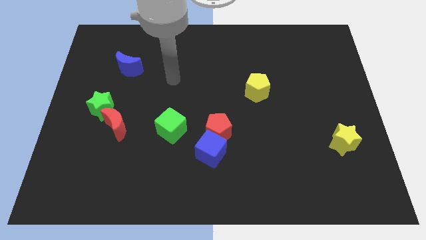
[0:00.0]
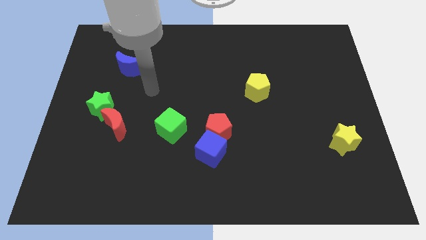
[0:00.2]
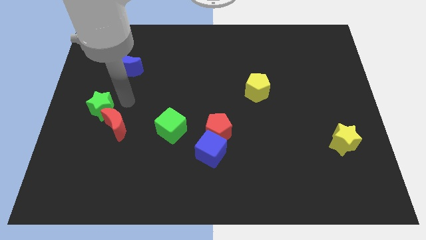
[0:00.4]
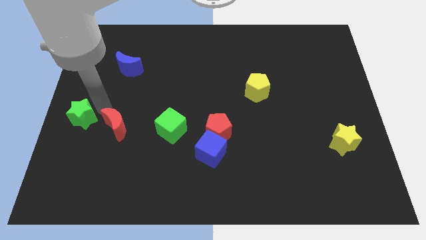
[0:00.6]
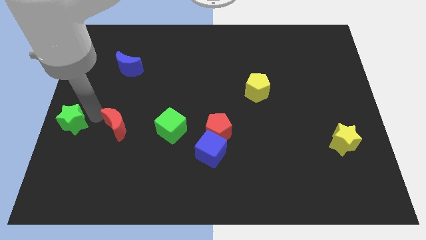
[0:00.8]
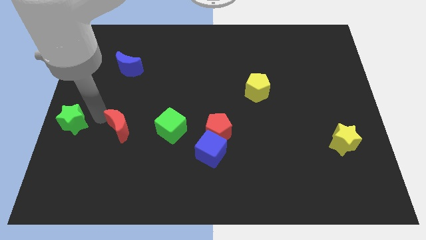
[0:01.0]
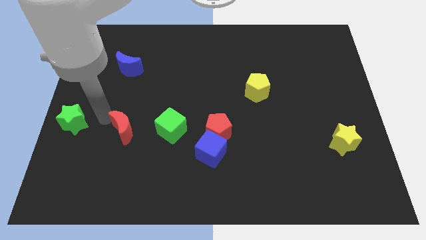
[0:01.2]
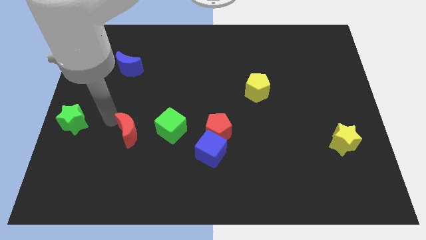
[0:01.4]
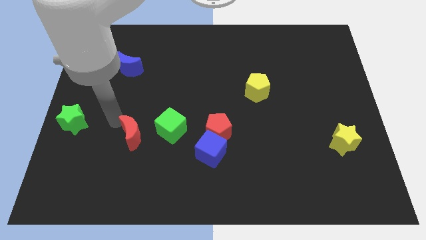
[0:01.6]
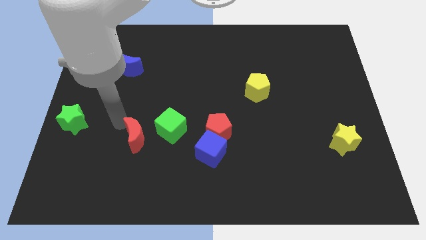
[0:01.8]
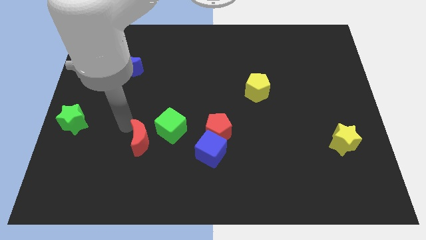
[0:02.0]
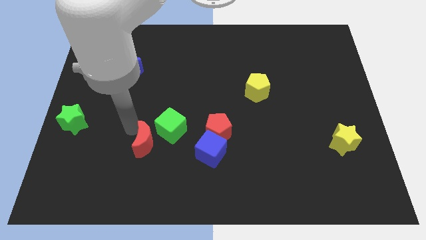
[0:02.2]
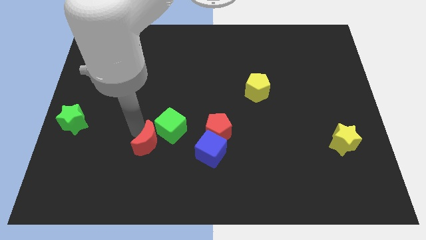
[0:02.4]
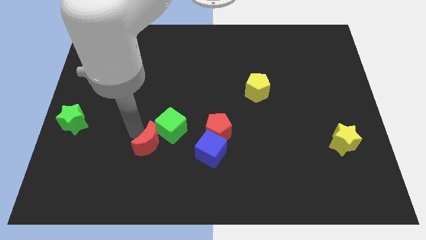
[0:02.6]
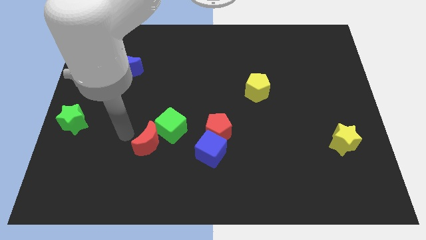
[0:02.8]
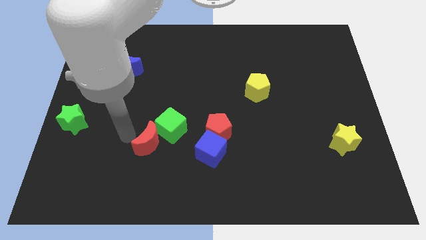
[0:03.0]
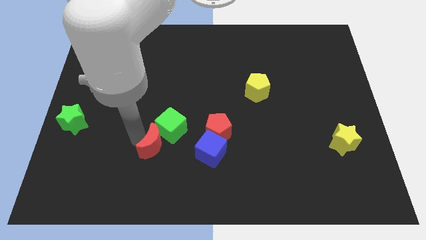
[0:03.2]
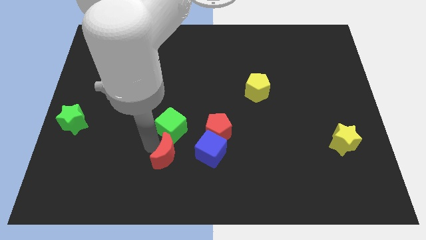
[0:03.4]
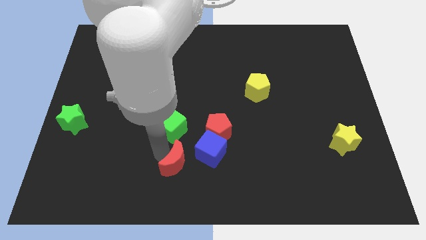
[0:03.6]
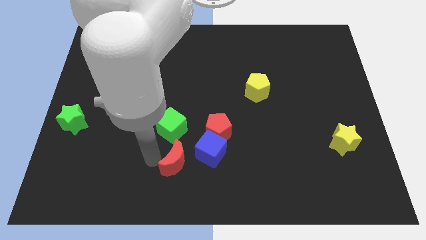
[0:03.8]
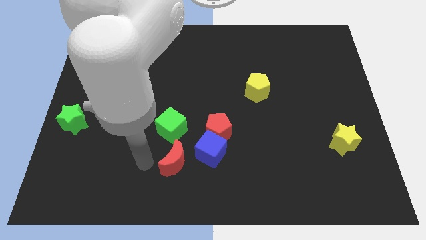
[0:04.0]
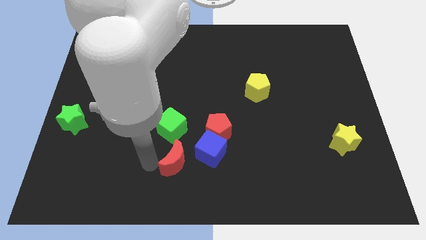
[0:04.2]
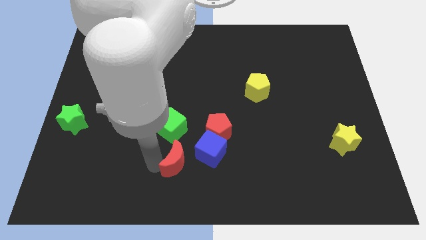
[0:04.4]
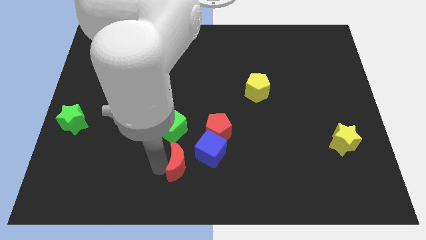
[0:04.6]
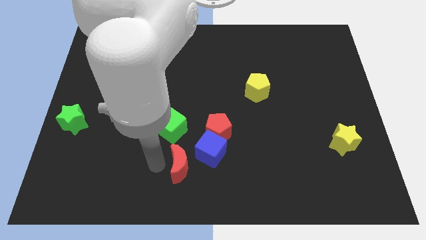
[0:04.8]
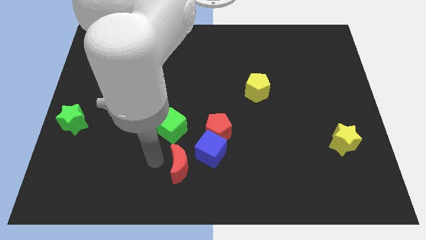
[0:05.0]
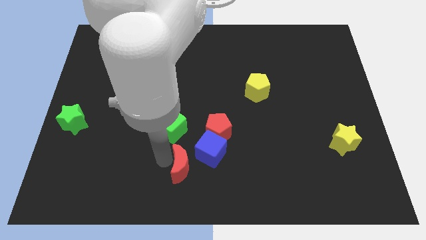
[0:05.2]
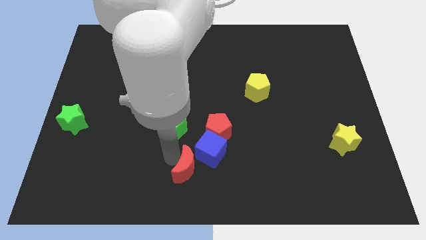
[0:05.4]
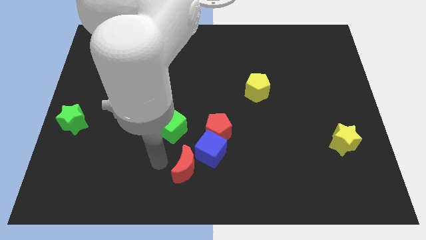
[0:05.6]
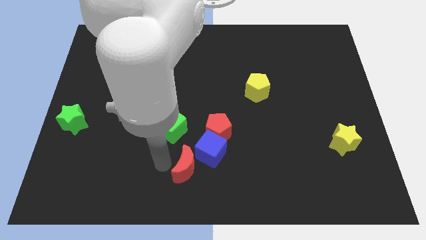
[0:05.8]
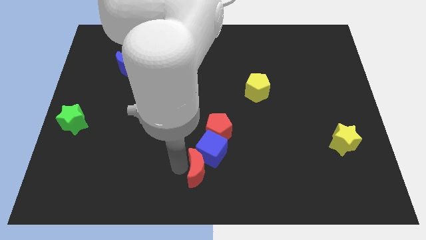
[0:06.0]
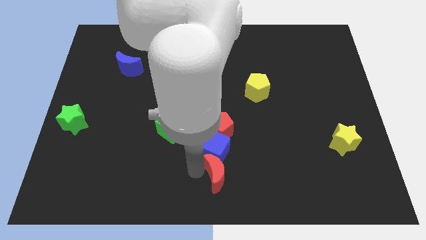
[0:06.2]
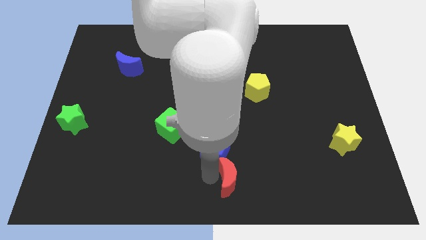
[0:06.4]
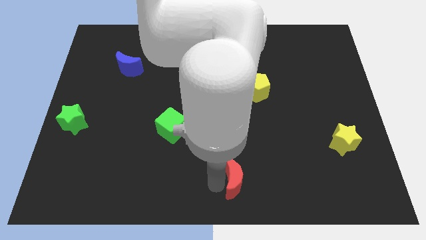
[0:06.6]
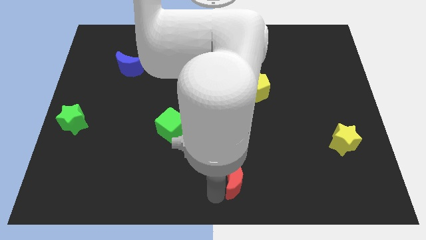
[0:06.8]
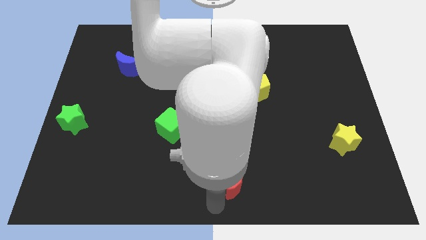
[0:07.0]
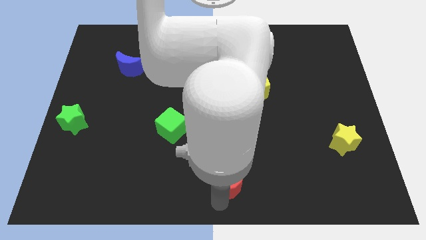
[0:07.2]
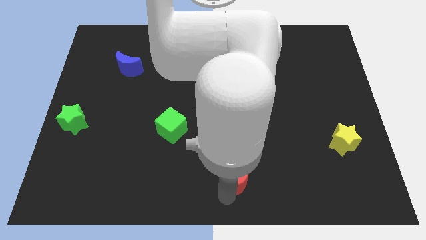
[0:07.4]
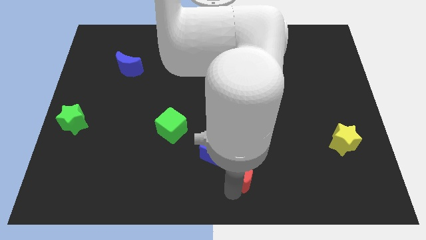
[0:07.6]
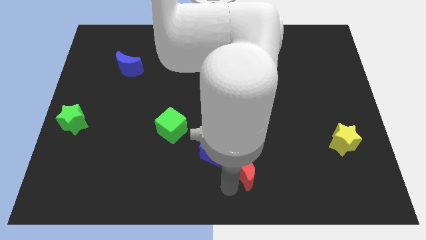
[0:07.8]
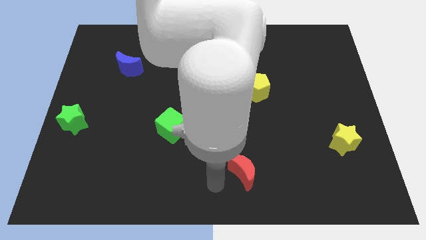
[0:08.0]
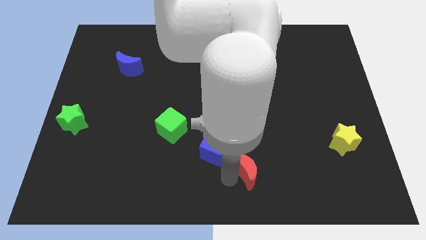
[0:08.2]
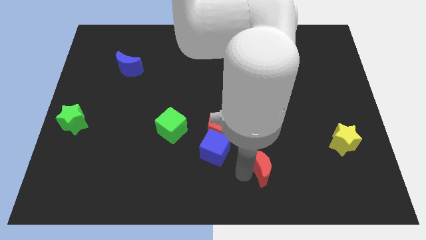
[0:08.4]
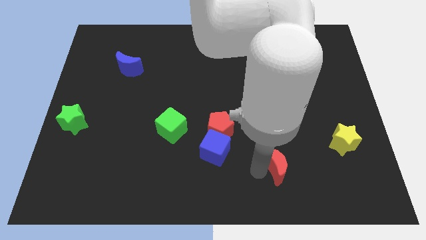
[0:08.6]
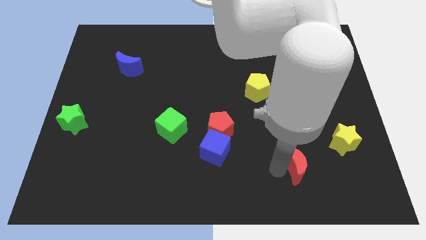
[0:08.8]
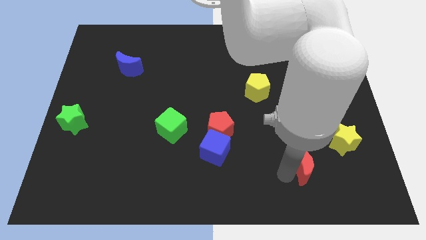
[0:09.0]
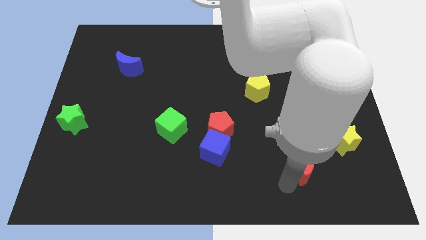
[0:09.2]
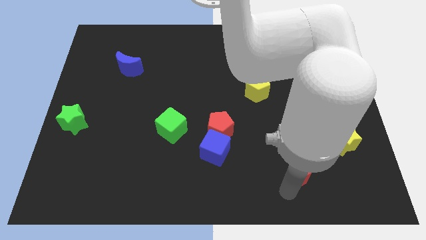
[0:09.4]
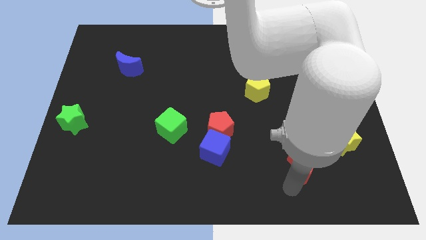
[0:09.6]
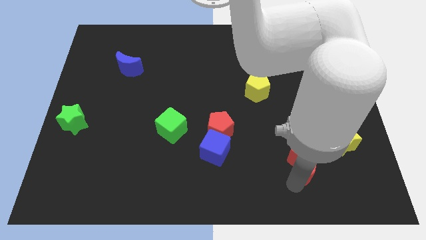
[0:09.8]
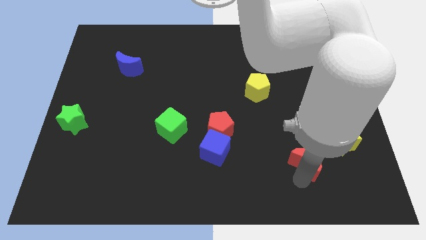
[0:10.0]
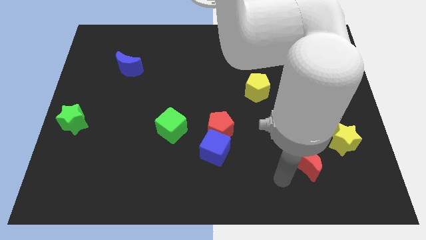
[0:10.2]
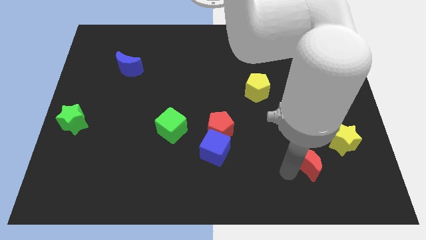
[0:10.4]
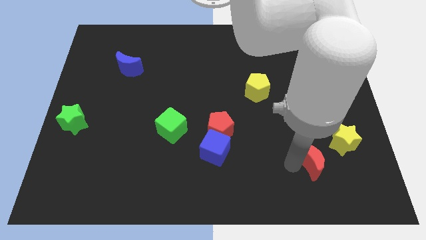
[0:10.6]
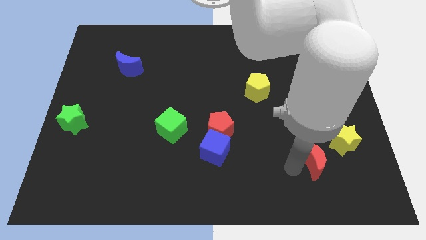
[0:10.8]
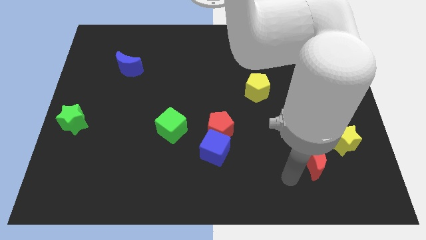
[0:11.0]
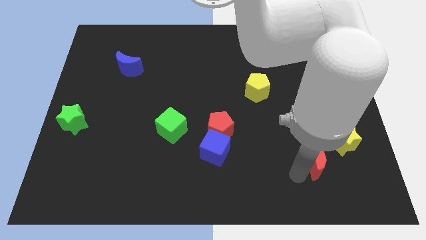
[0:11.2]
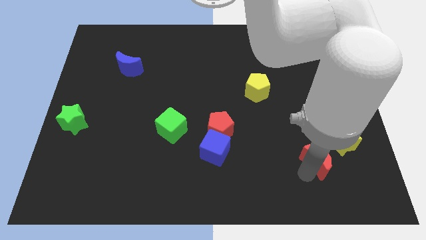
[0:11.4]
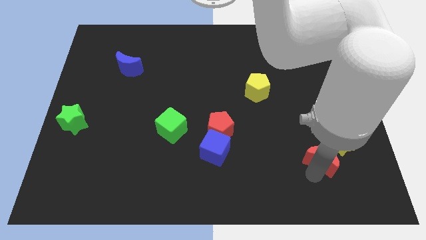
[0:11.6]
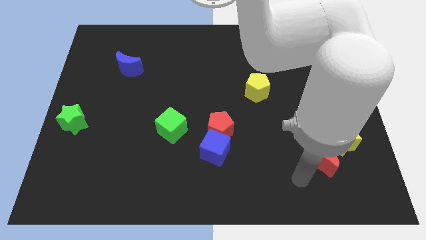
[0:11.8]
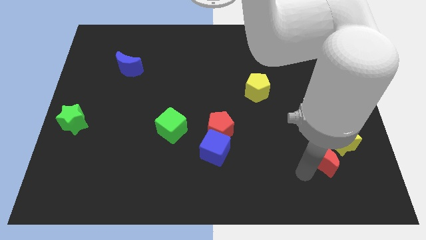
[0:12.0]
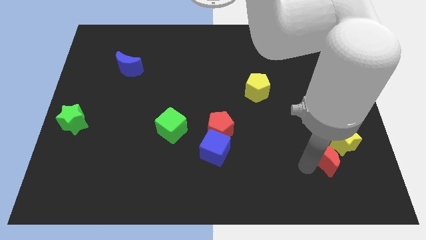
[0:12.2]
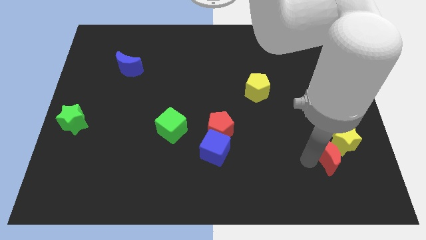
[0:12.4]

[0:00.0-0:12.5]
put the red moon to the yellow star

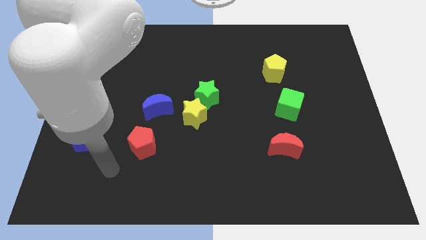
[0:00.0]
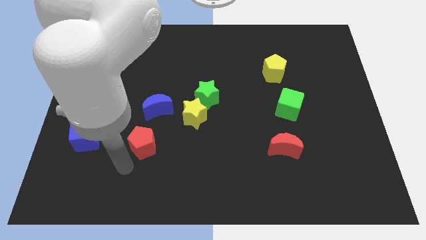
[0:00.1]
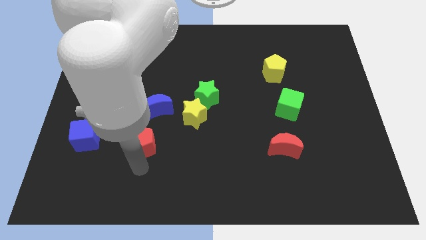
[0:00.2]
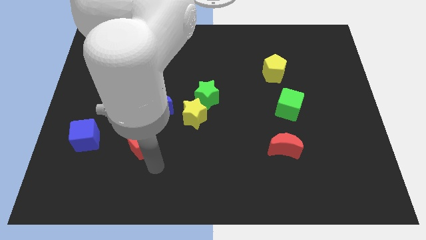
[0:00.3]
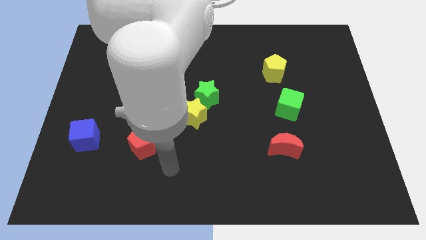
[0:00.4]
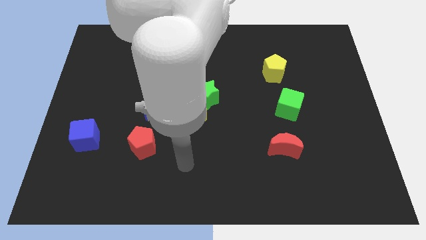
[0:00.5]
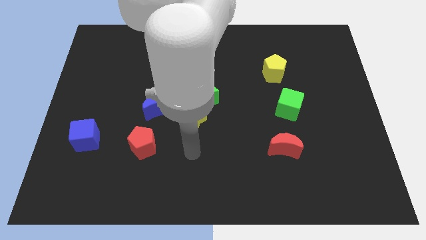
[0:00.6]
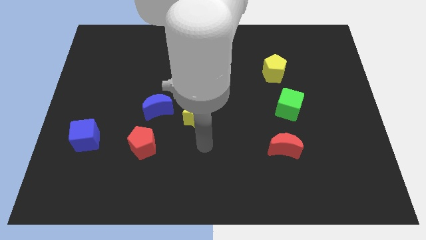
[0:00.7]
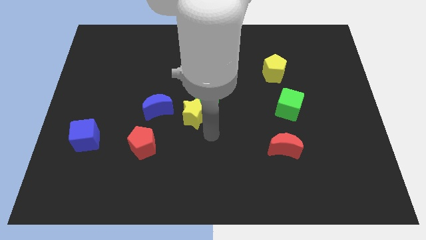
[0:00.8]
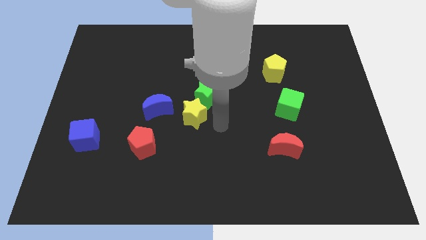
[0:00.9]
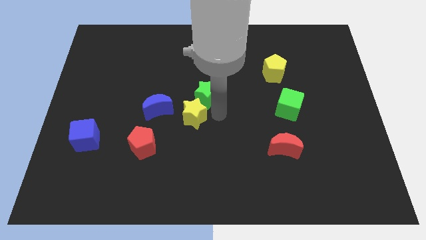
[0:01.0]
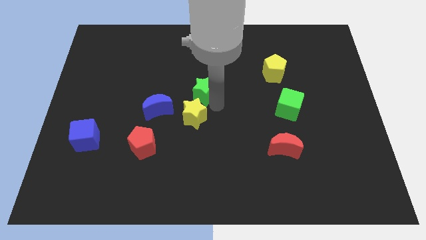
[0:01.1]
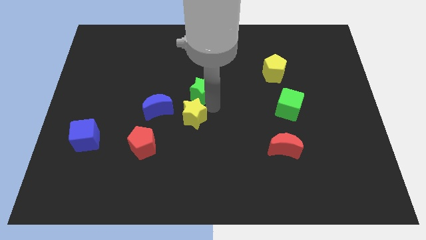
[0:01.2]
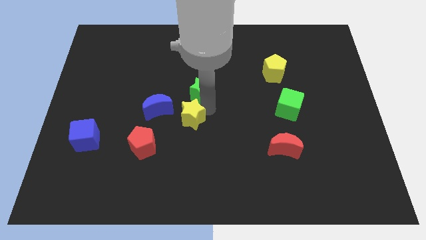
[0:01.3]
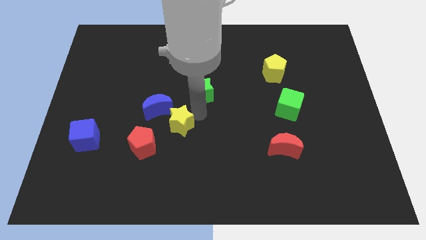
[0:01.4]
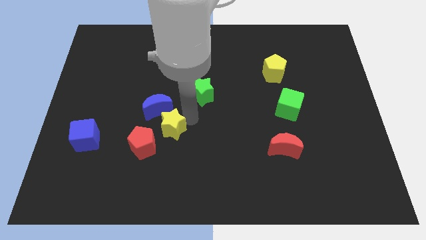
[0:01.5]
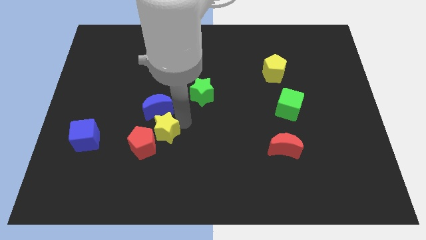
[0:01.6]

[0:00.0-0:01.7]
move the yellow star towards the red pentagon
